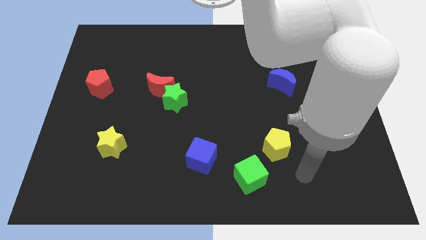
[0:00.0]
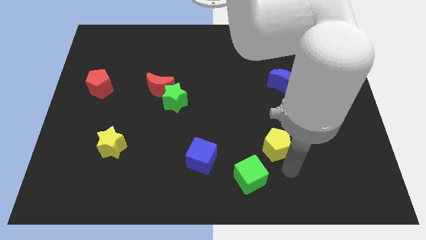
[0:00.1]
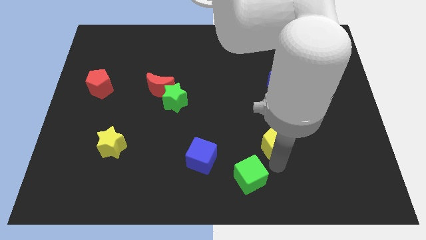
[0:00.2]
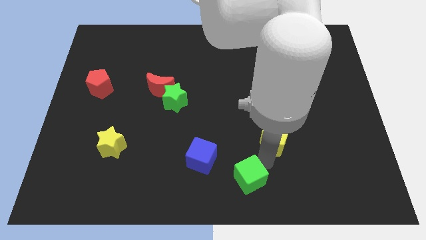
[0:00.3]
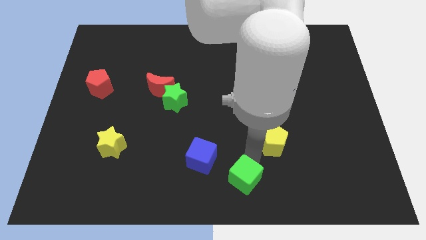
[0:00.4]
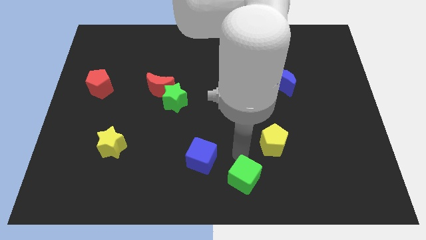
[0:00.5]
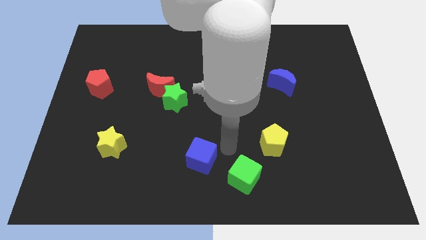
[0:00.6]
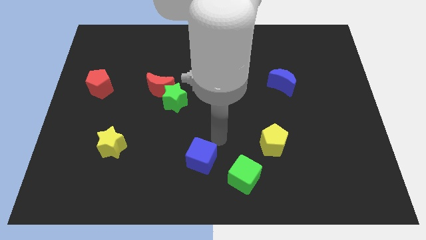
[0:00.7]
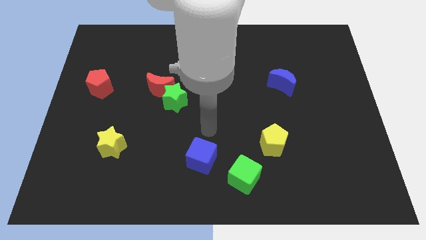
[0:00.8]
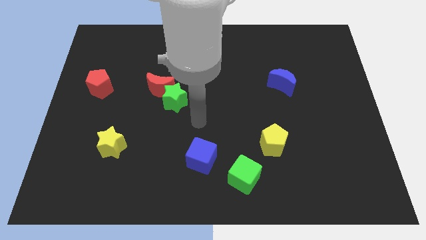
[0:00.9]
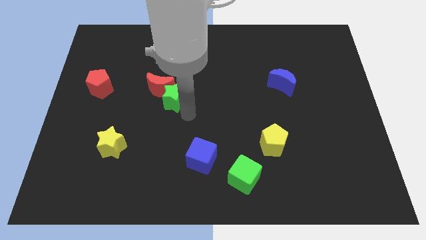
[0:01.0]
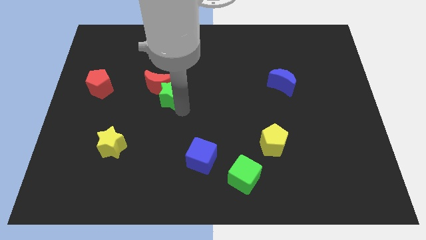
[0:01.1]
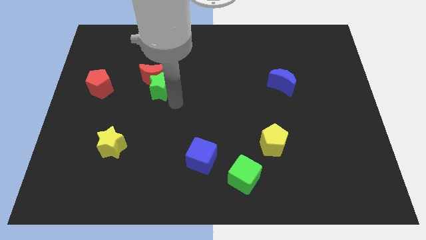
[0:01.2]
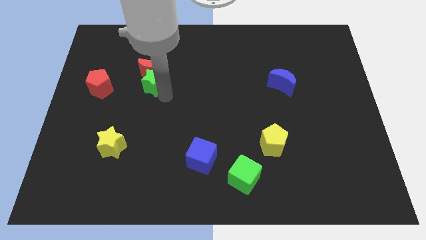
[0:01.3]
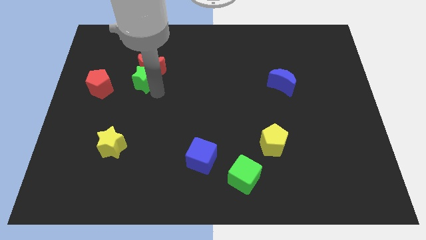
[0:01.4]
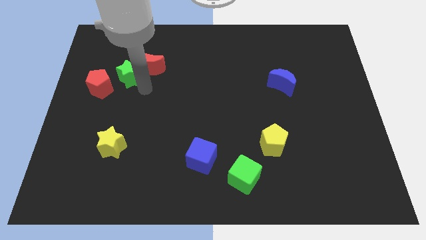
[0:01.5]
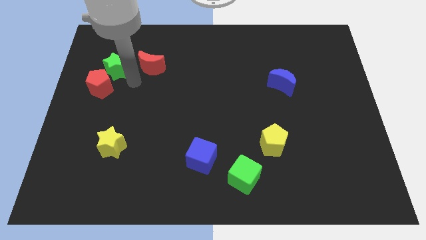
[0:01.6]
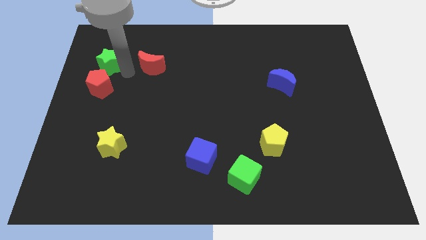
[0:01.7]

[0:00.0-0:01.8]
move the red moon away from the green star

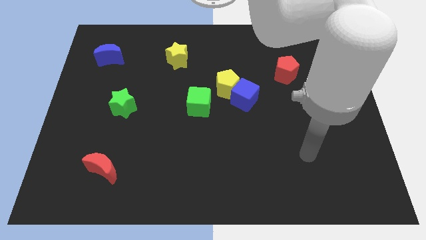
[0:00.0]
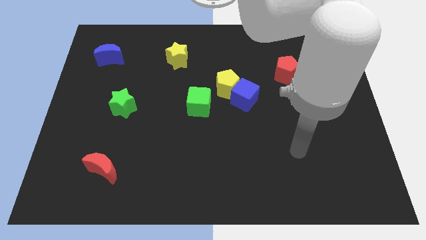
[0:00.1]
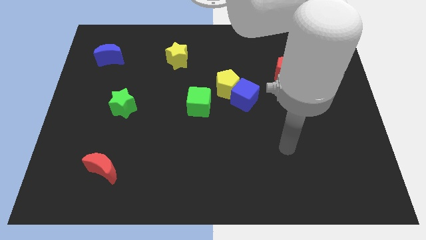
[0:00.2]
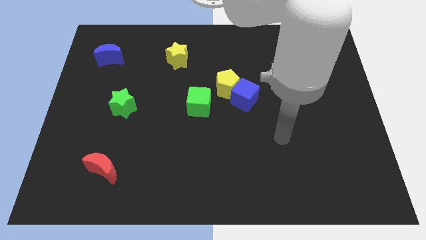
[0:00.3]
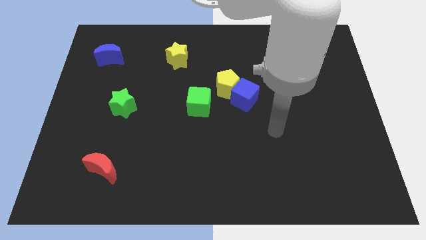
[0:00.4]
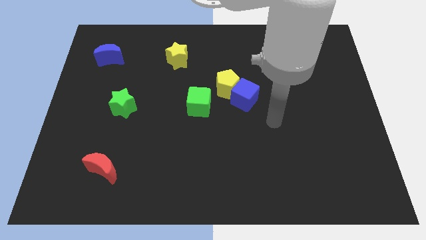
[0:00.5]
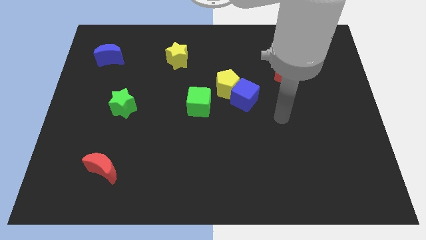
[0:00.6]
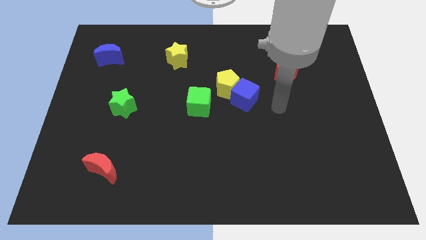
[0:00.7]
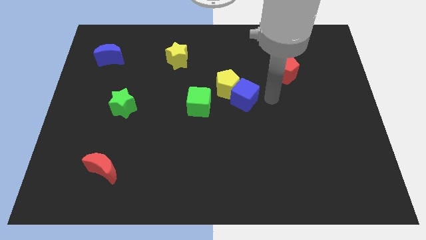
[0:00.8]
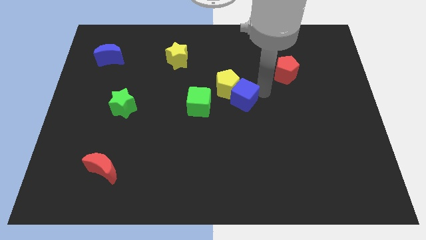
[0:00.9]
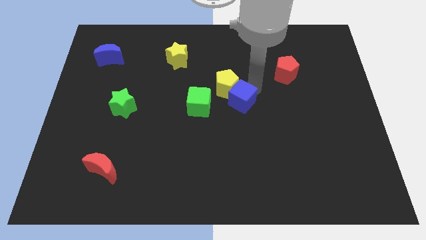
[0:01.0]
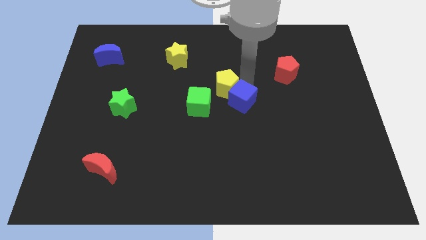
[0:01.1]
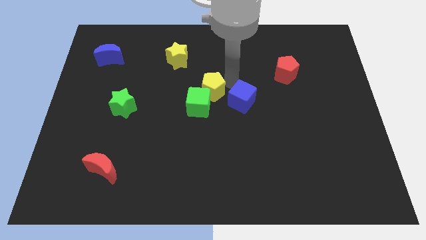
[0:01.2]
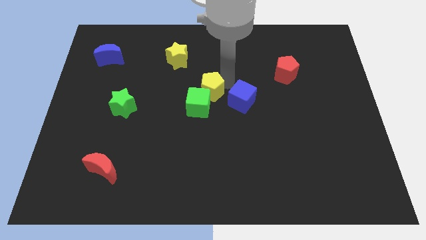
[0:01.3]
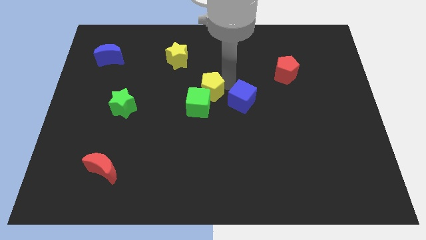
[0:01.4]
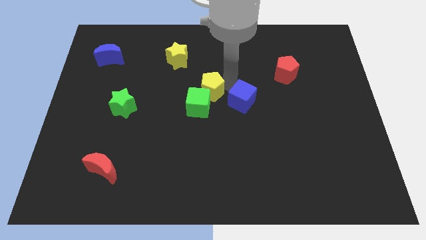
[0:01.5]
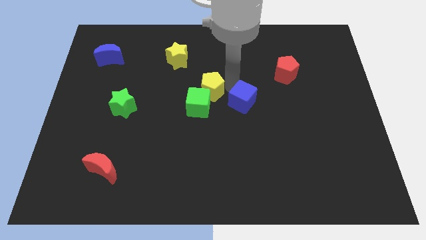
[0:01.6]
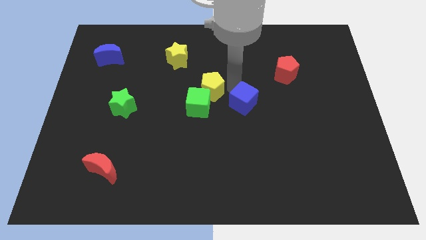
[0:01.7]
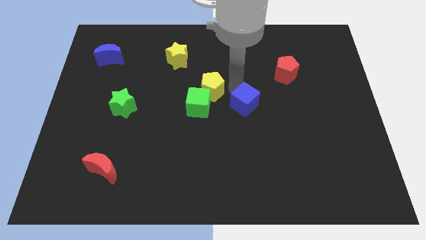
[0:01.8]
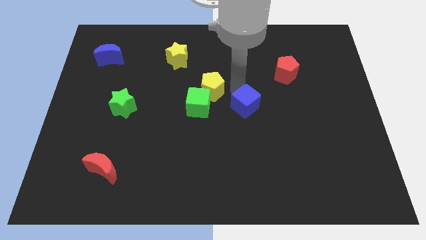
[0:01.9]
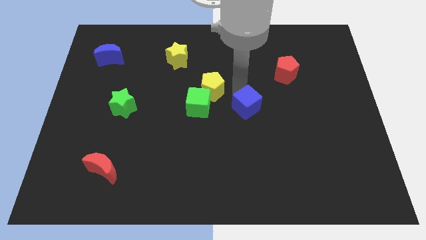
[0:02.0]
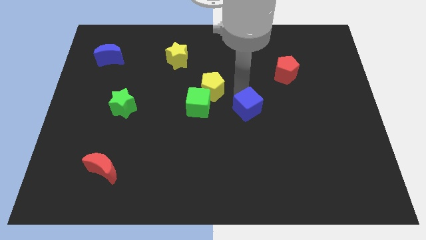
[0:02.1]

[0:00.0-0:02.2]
separate the blue cube from the yellow pentagon

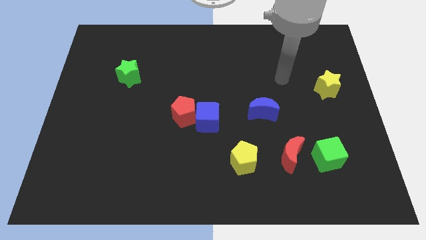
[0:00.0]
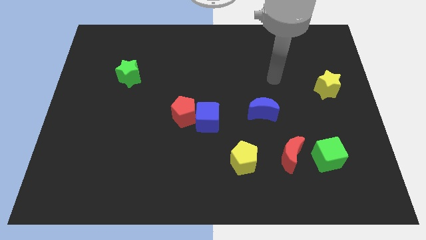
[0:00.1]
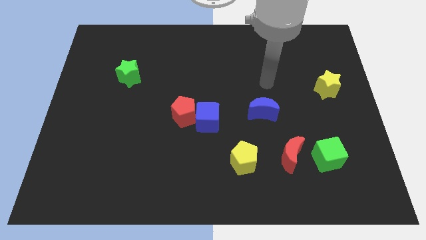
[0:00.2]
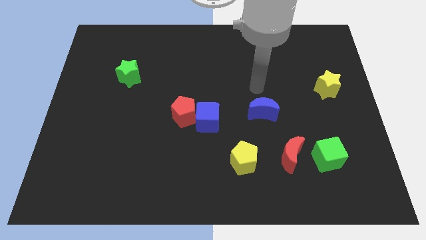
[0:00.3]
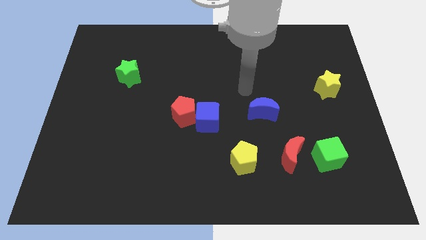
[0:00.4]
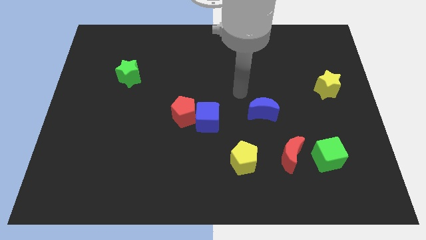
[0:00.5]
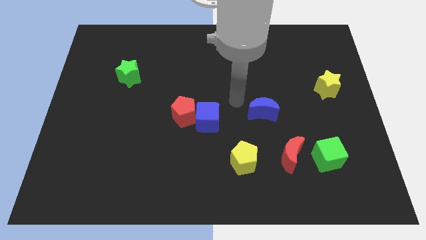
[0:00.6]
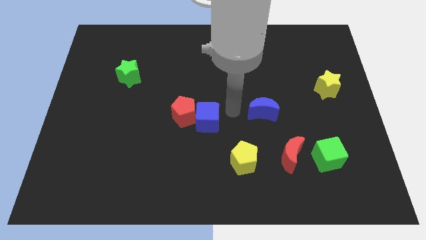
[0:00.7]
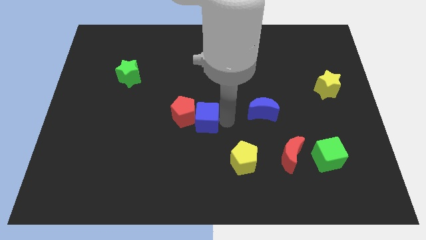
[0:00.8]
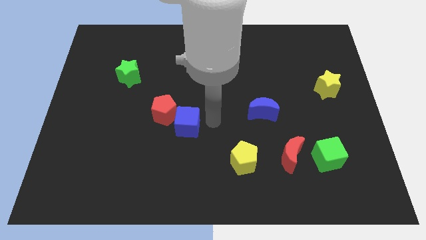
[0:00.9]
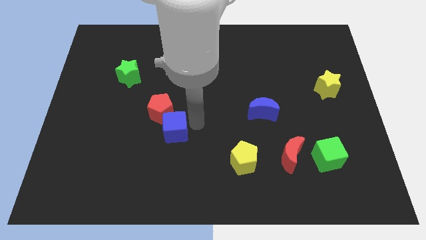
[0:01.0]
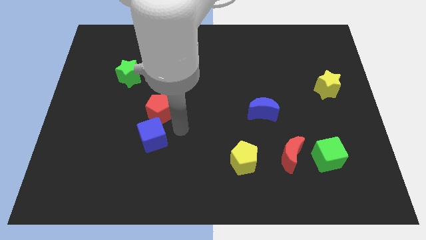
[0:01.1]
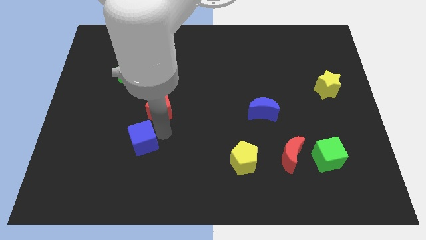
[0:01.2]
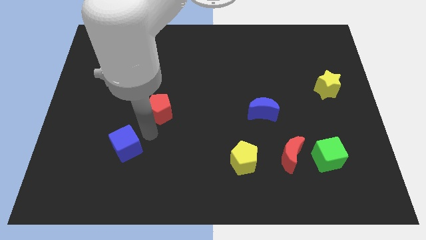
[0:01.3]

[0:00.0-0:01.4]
separate the red pentagon from the blue cube

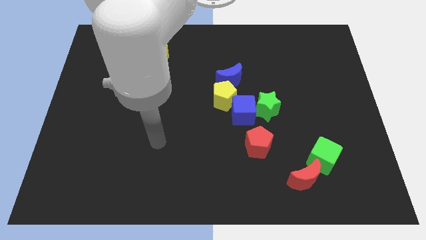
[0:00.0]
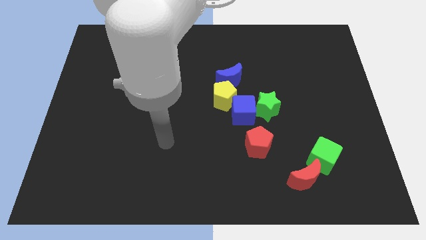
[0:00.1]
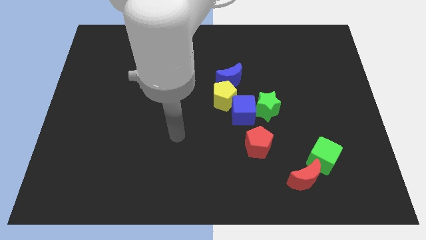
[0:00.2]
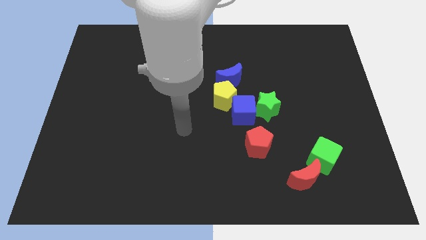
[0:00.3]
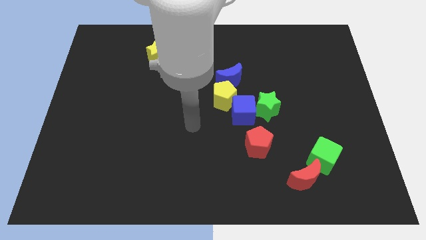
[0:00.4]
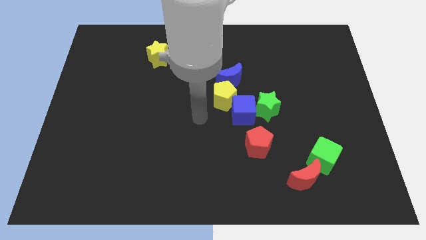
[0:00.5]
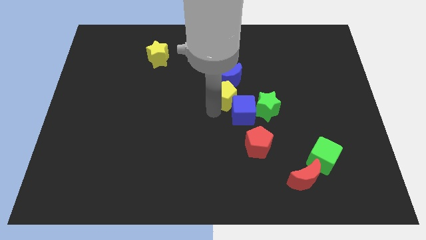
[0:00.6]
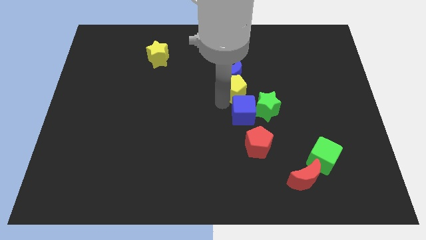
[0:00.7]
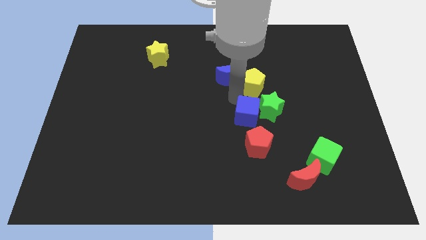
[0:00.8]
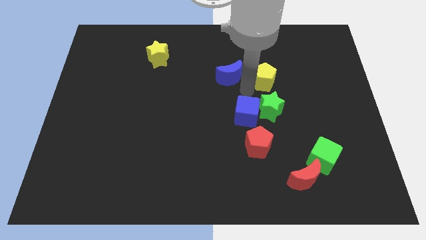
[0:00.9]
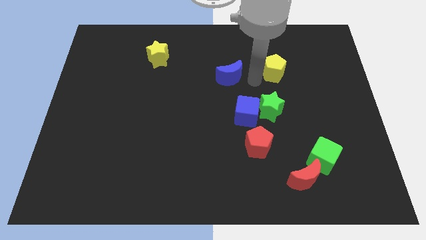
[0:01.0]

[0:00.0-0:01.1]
move the blue moon away from the yellow pentagon

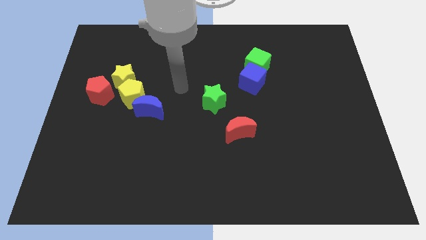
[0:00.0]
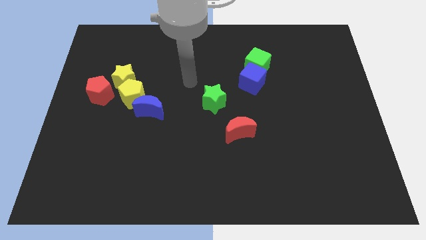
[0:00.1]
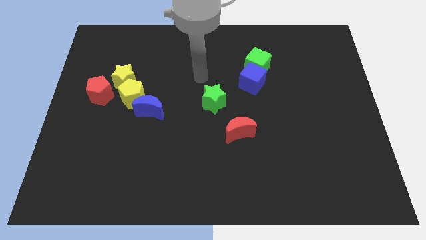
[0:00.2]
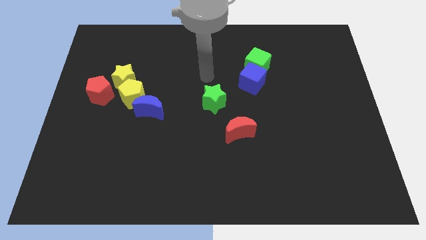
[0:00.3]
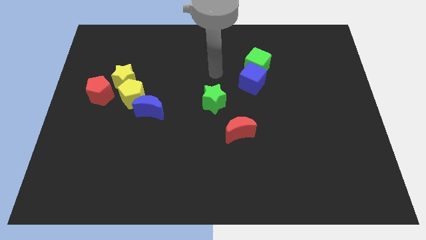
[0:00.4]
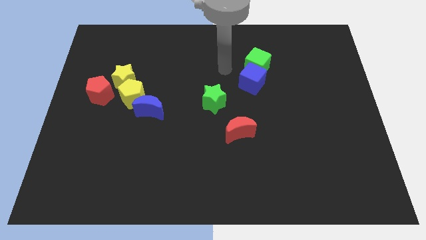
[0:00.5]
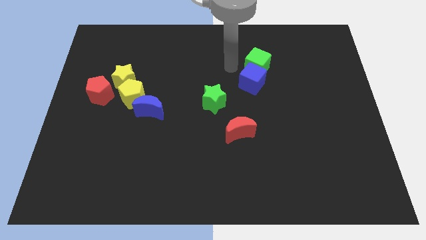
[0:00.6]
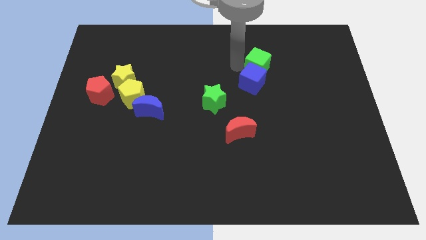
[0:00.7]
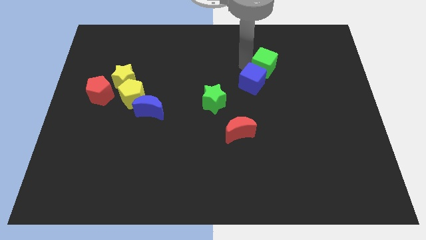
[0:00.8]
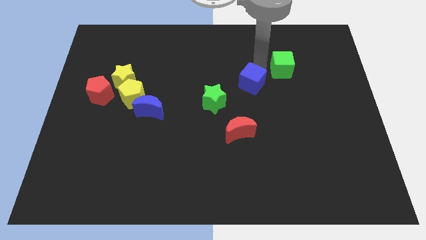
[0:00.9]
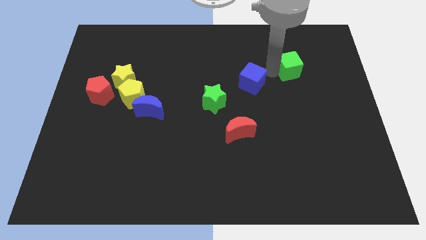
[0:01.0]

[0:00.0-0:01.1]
pull the blue cube apart from the green cube

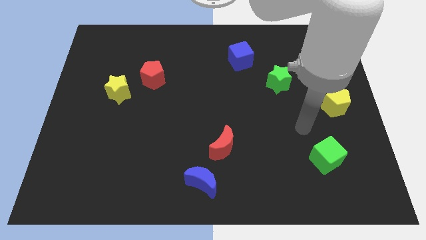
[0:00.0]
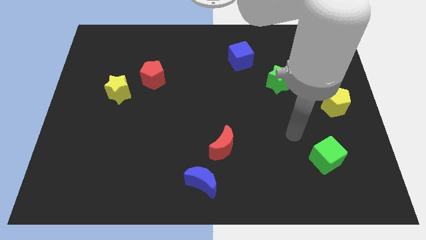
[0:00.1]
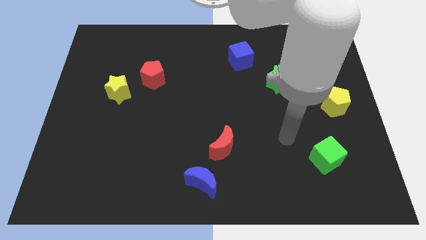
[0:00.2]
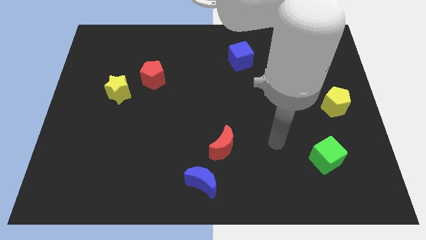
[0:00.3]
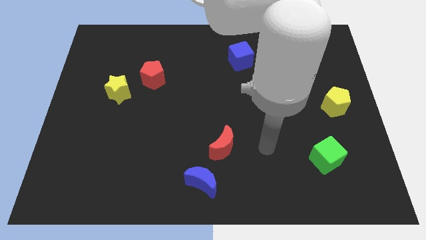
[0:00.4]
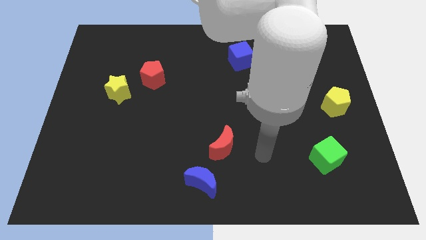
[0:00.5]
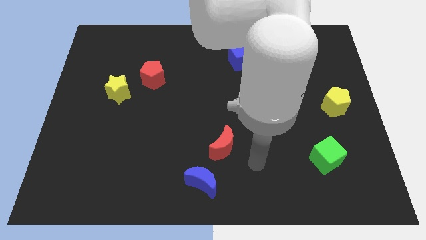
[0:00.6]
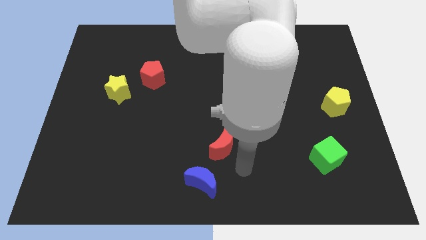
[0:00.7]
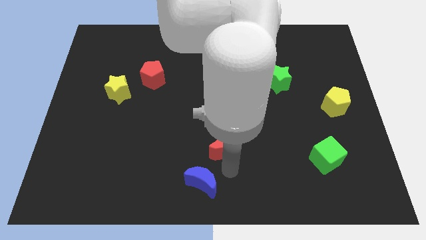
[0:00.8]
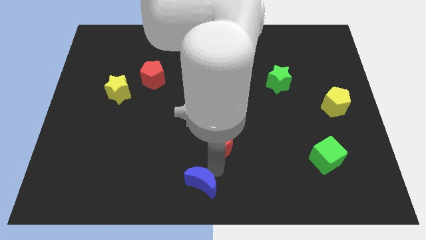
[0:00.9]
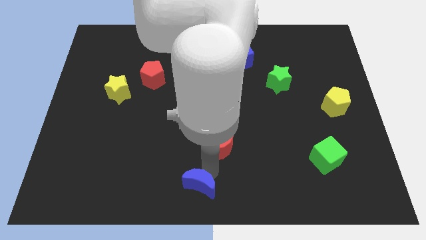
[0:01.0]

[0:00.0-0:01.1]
move the red moon away from the blue moon

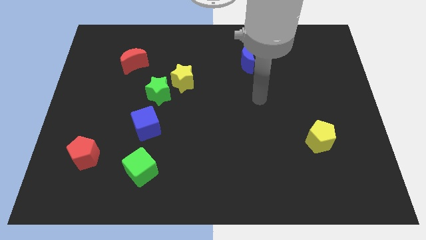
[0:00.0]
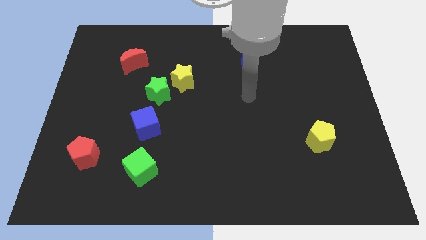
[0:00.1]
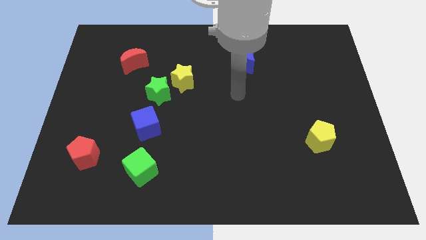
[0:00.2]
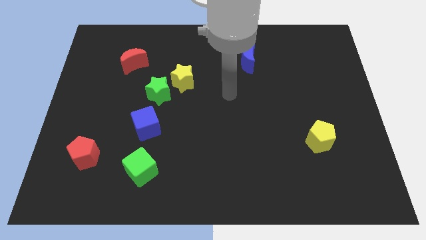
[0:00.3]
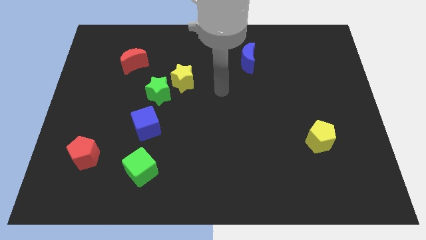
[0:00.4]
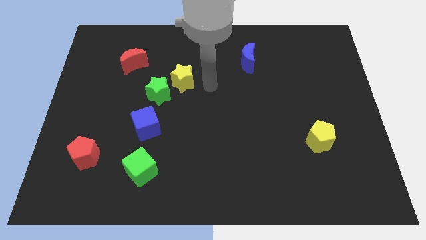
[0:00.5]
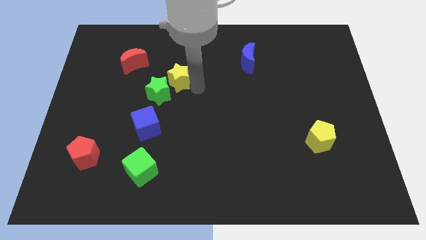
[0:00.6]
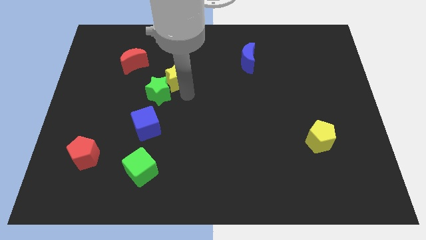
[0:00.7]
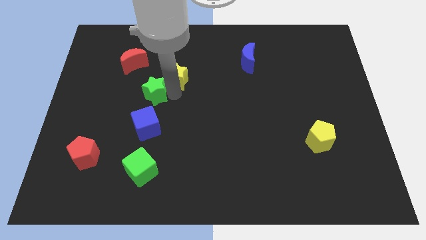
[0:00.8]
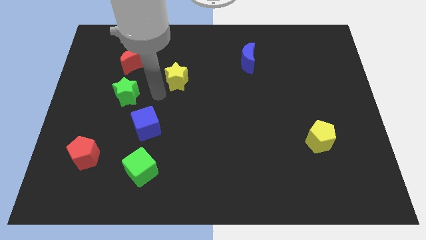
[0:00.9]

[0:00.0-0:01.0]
move the yellow star away from the green star
